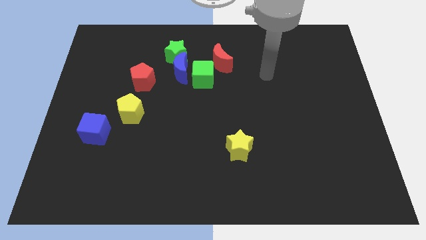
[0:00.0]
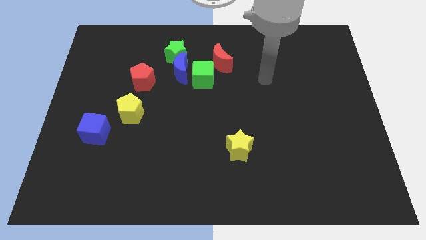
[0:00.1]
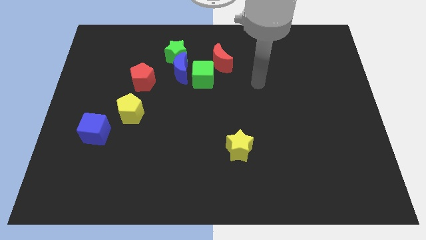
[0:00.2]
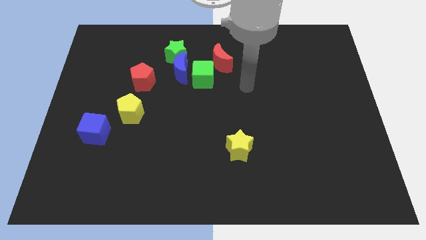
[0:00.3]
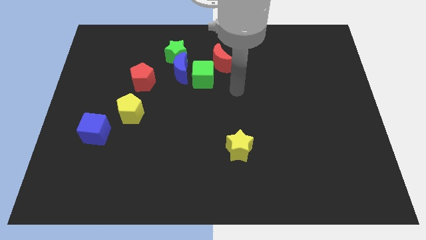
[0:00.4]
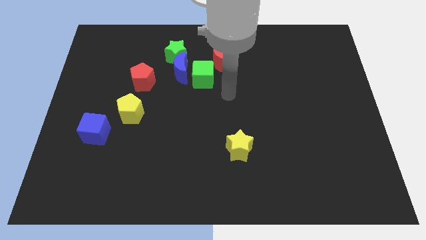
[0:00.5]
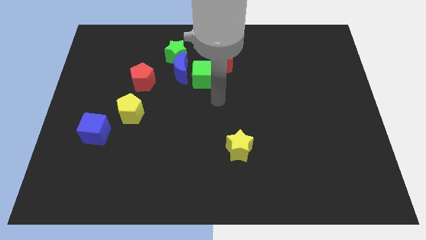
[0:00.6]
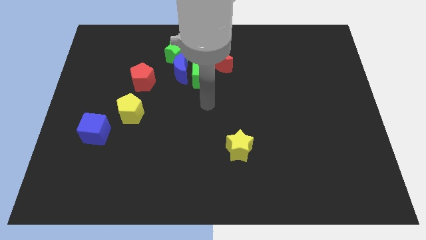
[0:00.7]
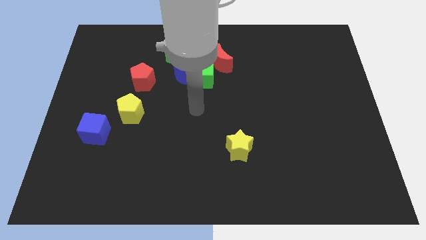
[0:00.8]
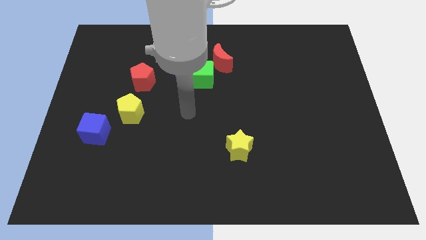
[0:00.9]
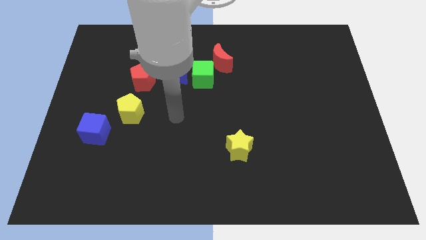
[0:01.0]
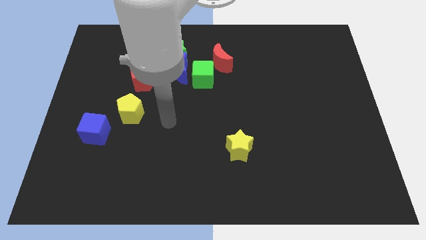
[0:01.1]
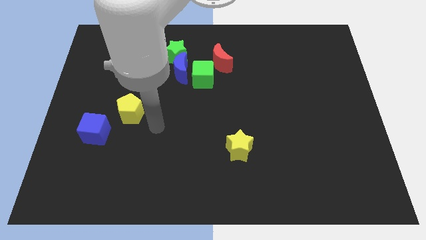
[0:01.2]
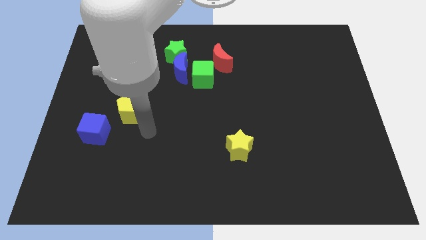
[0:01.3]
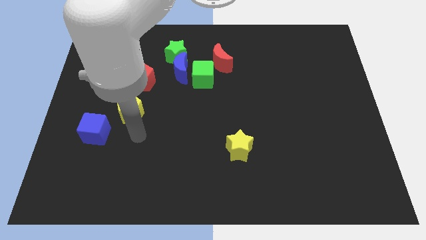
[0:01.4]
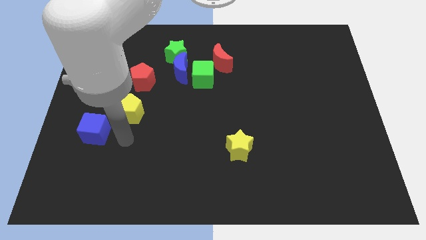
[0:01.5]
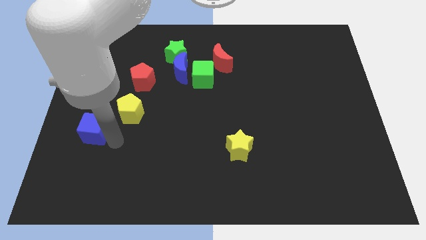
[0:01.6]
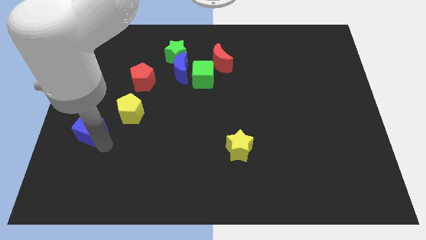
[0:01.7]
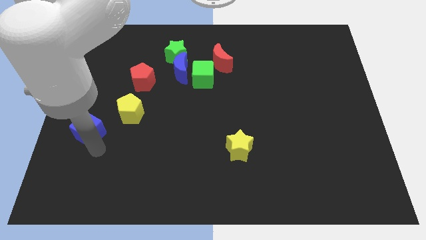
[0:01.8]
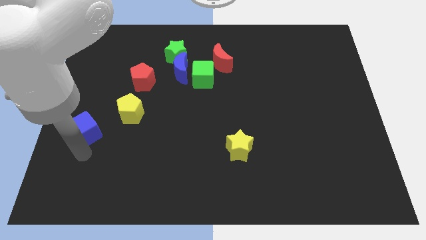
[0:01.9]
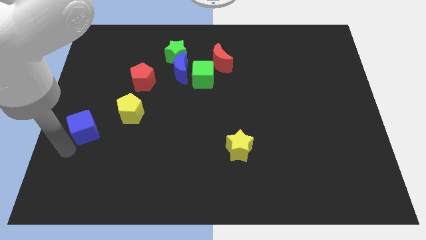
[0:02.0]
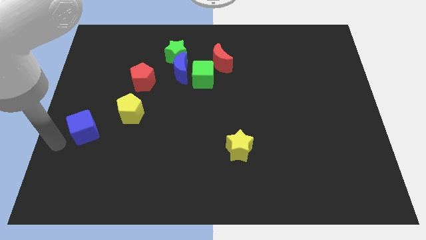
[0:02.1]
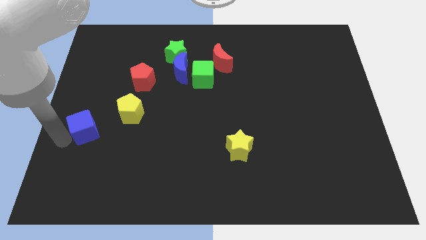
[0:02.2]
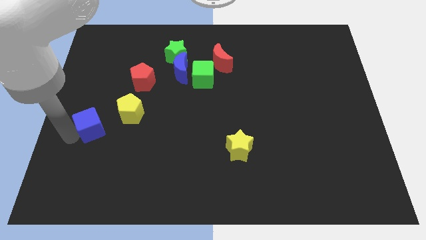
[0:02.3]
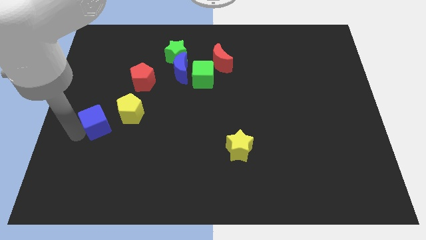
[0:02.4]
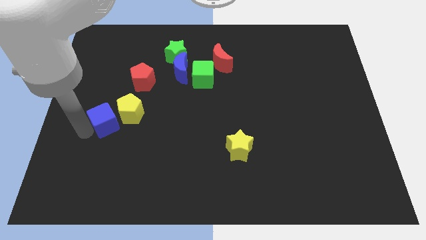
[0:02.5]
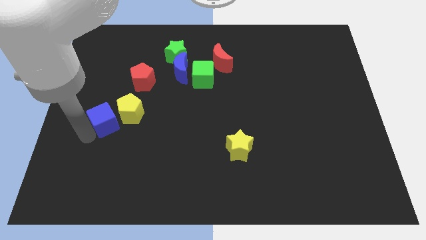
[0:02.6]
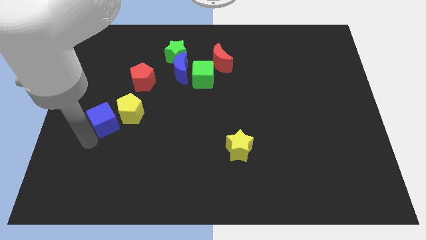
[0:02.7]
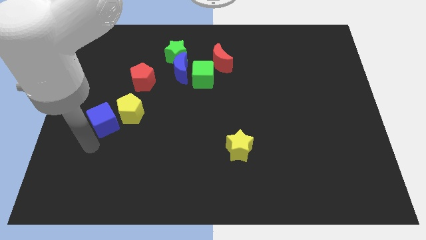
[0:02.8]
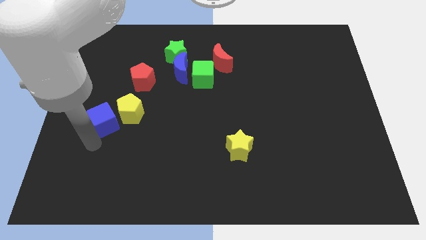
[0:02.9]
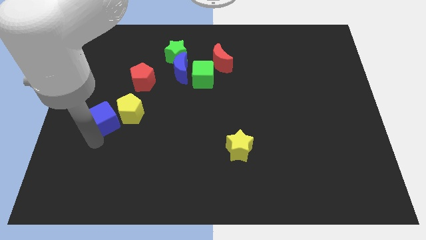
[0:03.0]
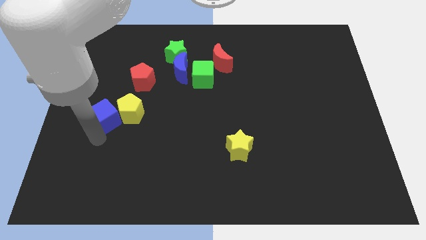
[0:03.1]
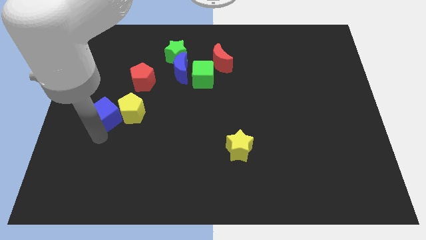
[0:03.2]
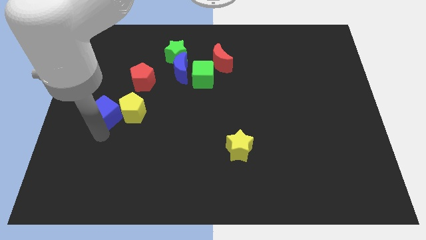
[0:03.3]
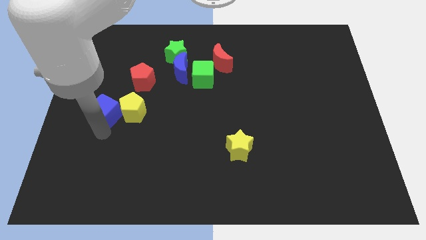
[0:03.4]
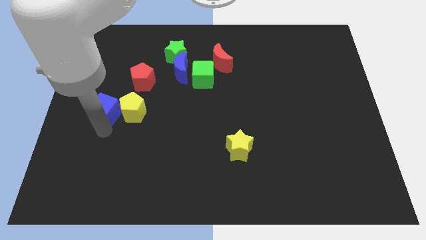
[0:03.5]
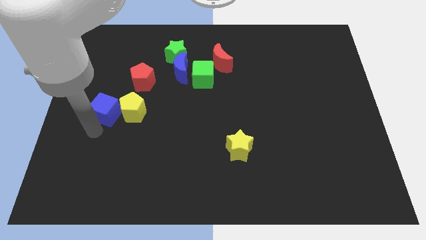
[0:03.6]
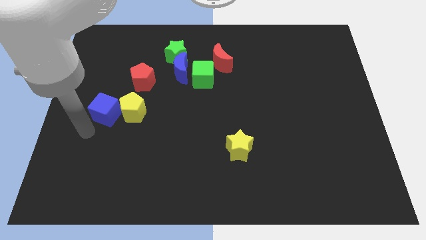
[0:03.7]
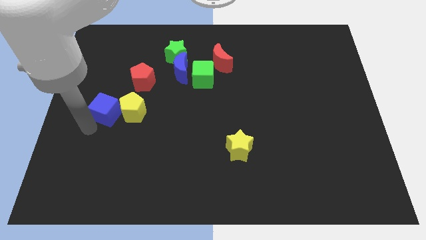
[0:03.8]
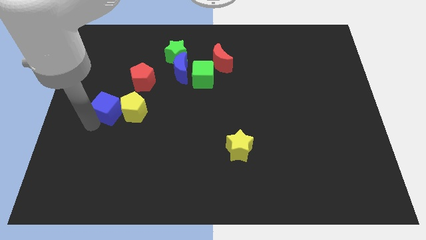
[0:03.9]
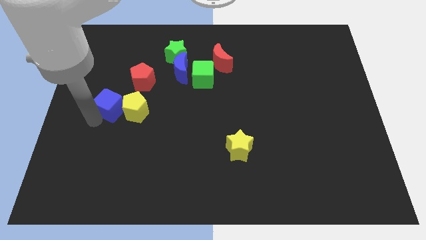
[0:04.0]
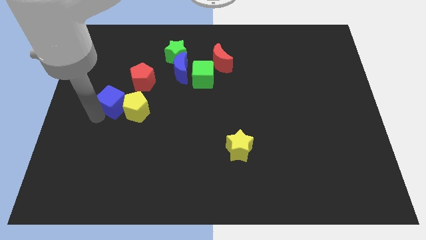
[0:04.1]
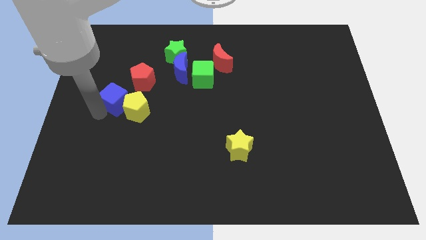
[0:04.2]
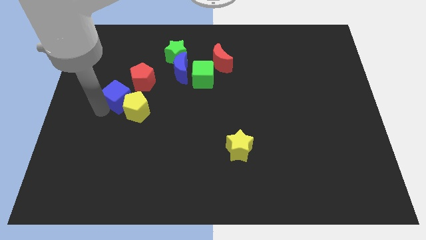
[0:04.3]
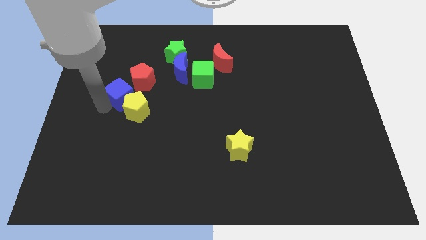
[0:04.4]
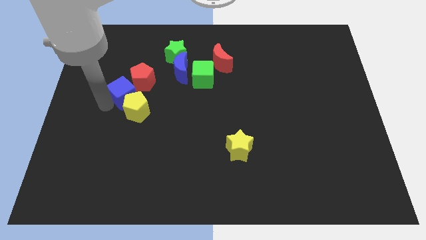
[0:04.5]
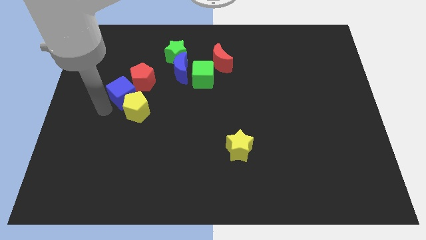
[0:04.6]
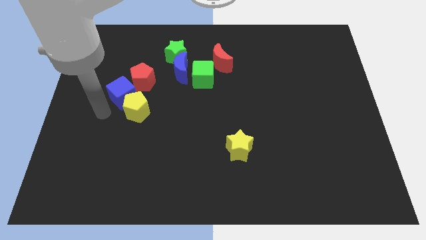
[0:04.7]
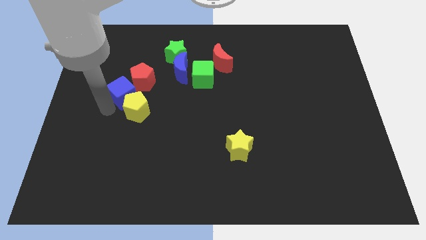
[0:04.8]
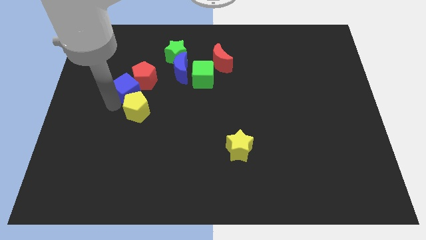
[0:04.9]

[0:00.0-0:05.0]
put the blue cube next to the red pentagon

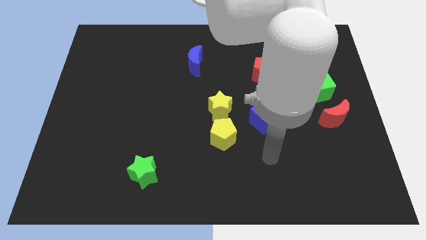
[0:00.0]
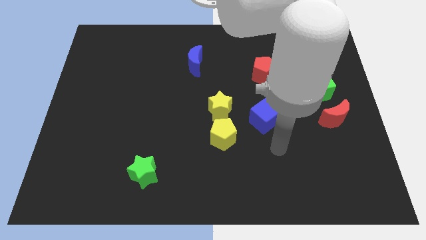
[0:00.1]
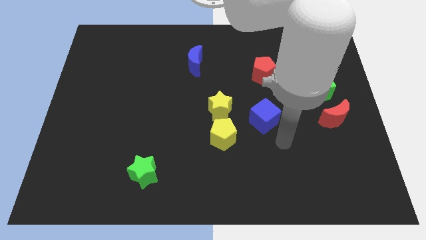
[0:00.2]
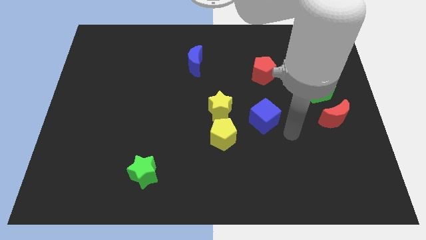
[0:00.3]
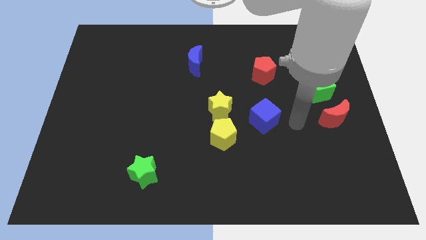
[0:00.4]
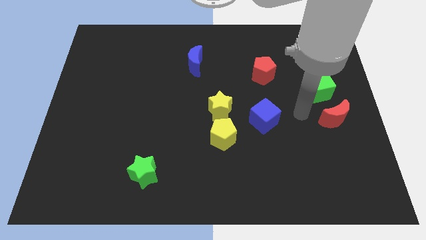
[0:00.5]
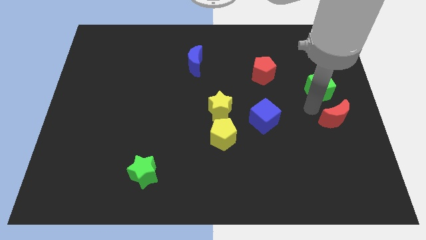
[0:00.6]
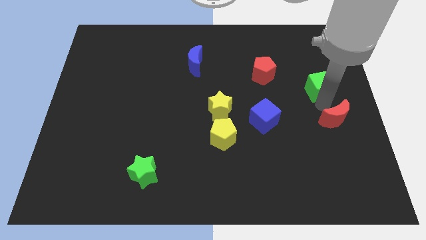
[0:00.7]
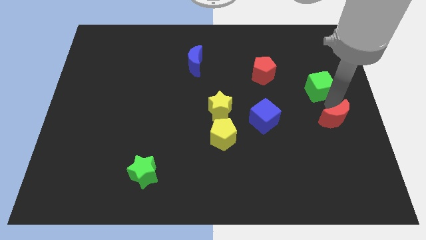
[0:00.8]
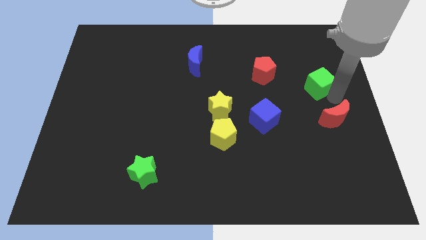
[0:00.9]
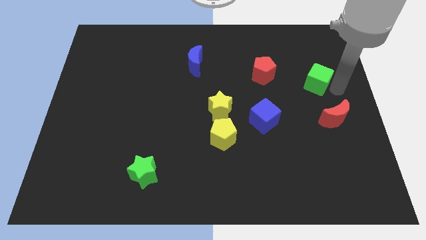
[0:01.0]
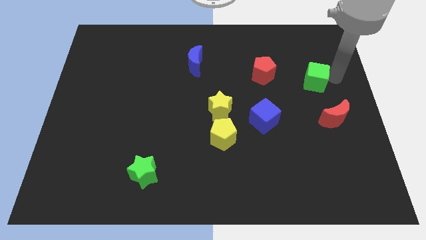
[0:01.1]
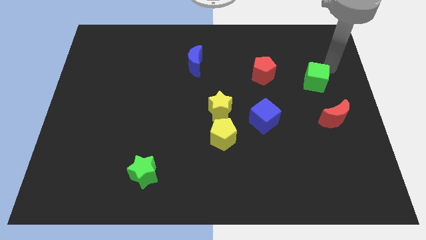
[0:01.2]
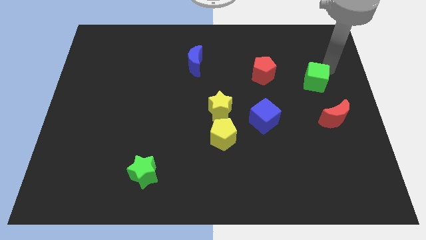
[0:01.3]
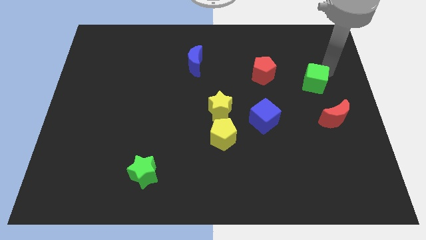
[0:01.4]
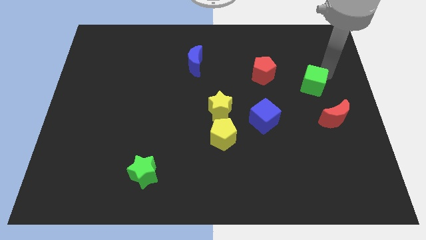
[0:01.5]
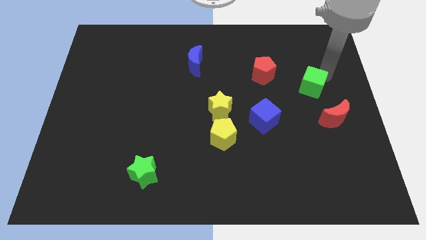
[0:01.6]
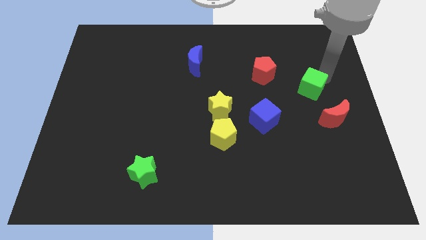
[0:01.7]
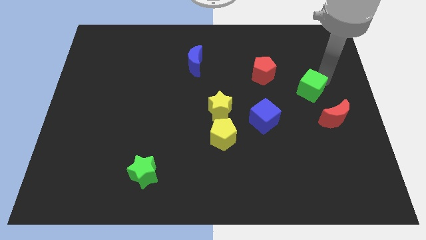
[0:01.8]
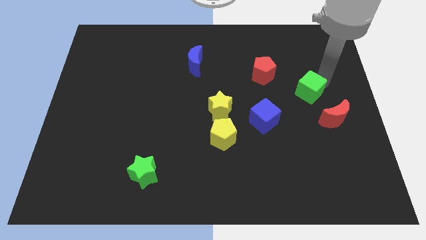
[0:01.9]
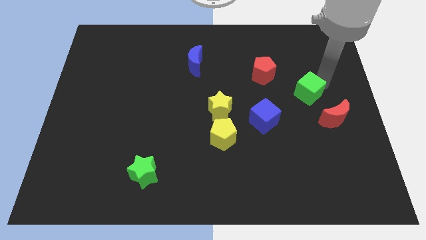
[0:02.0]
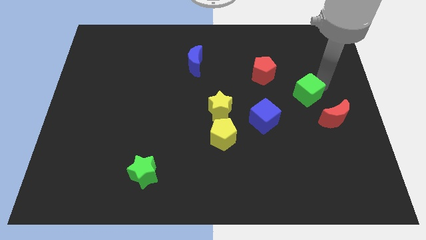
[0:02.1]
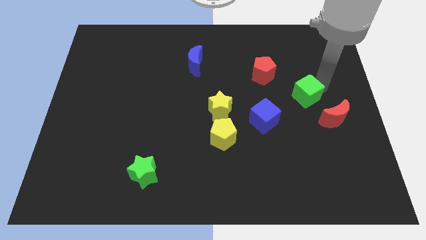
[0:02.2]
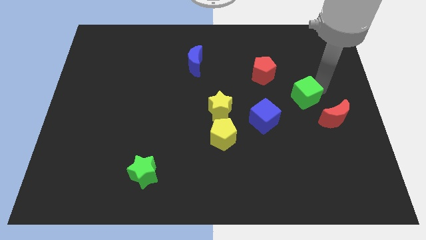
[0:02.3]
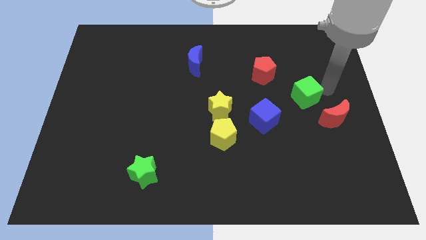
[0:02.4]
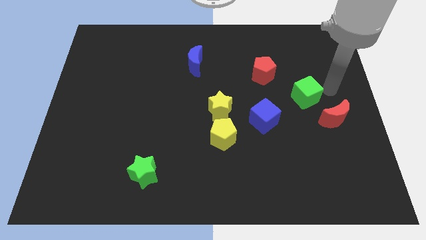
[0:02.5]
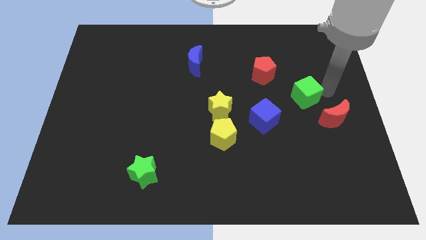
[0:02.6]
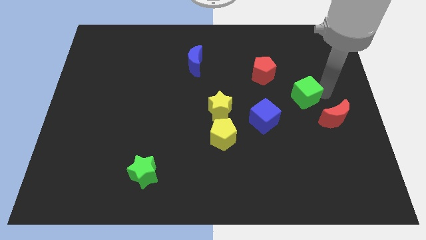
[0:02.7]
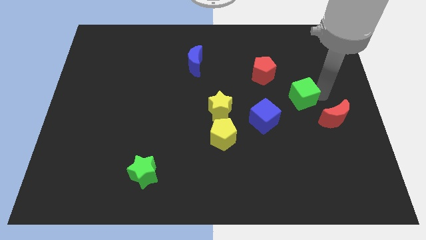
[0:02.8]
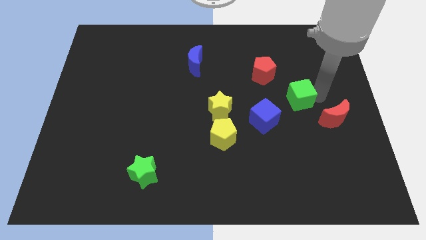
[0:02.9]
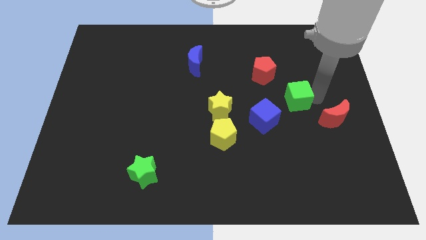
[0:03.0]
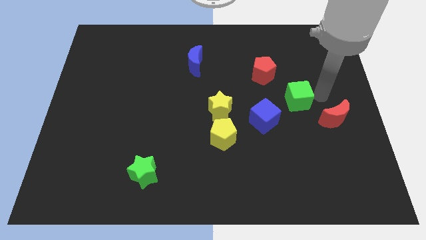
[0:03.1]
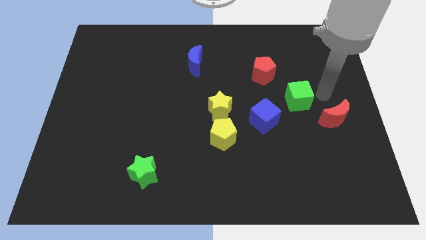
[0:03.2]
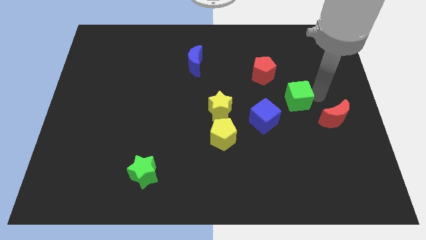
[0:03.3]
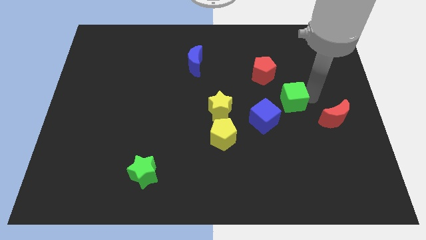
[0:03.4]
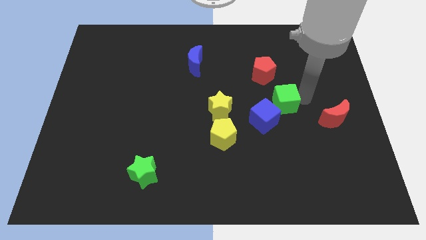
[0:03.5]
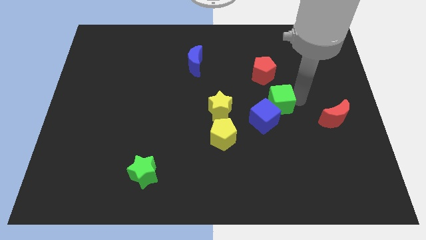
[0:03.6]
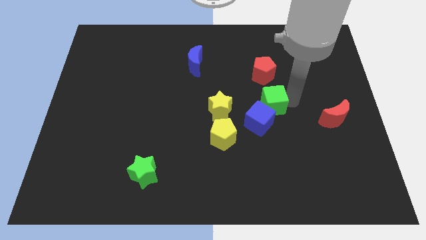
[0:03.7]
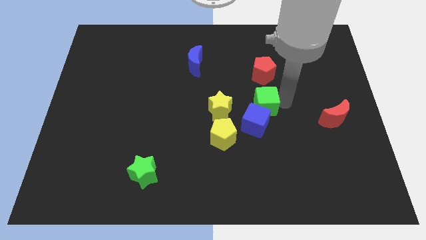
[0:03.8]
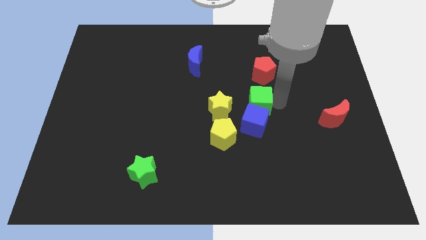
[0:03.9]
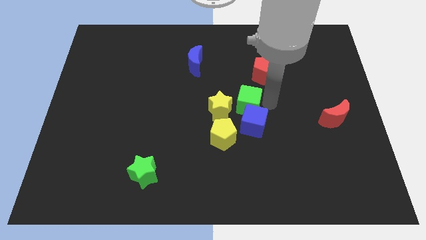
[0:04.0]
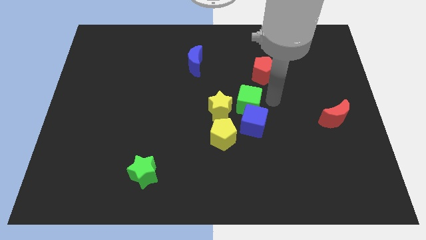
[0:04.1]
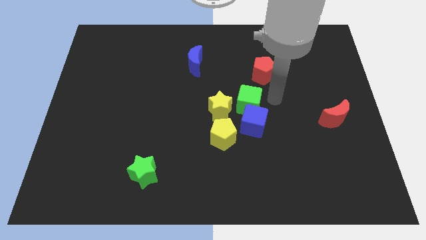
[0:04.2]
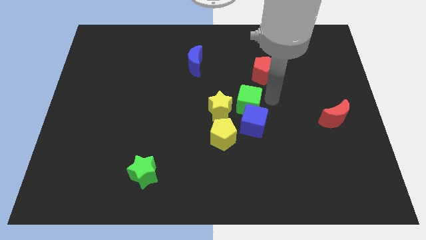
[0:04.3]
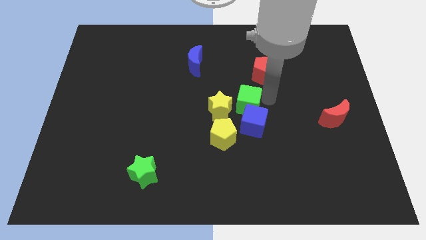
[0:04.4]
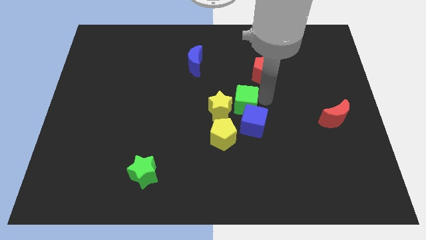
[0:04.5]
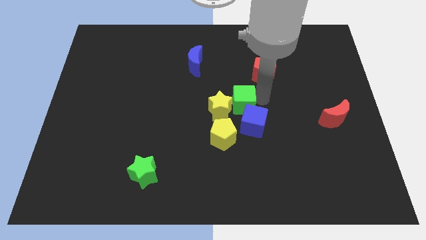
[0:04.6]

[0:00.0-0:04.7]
slide the green cube close to the yellow star
